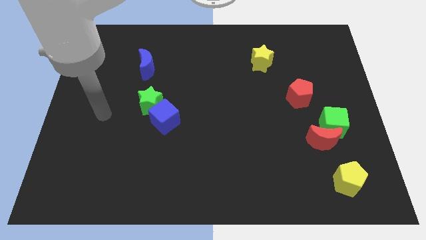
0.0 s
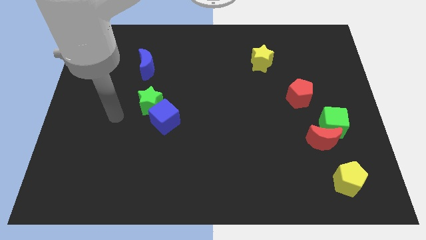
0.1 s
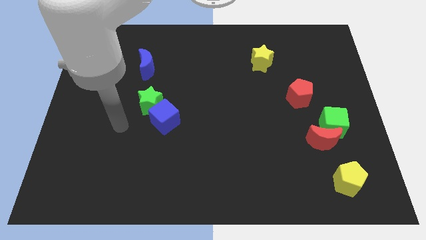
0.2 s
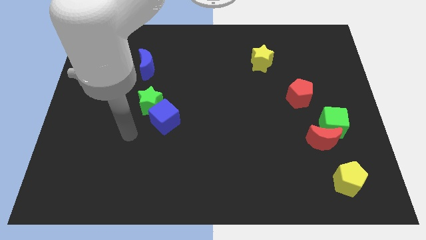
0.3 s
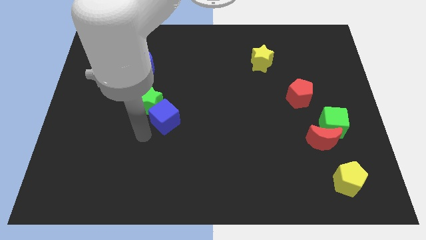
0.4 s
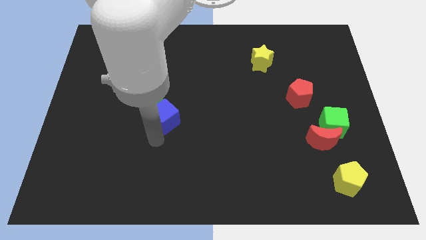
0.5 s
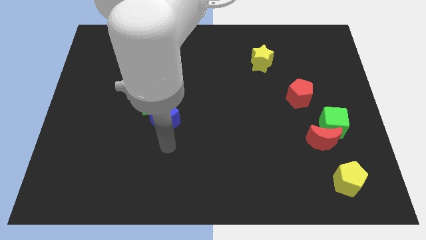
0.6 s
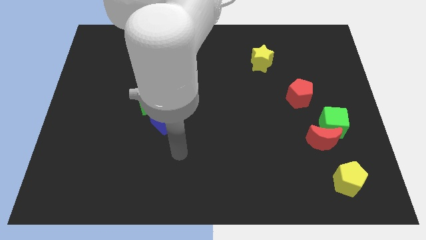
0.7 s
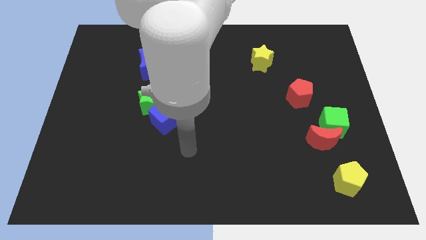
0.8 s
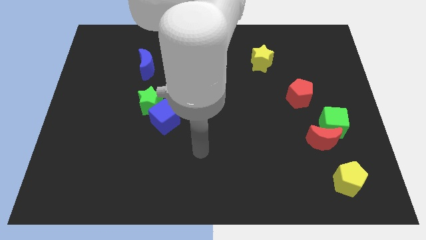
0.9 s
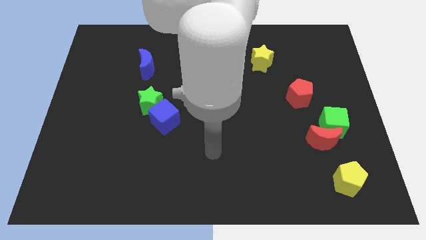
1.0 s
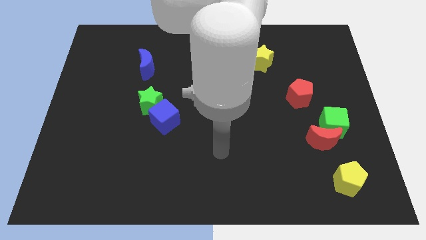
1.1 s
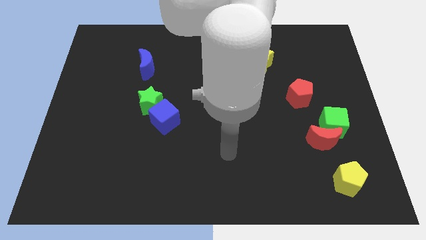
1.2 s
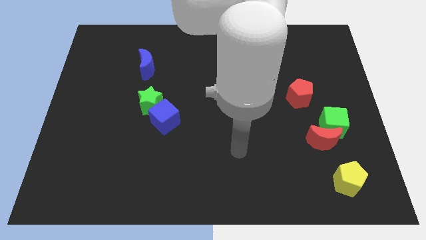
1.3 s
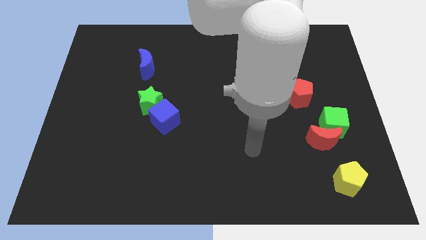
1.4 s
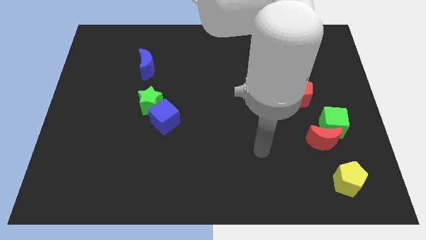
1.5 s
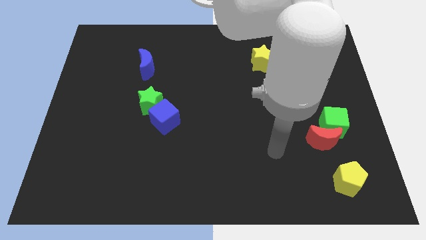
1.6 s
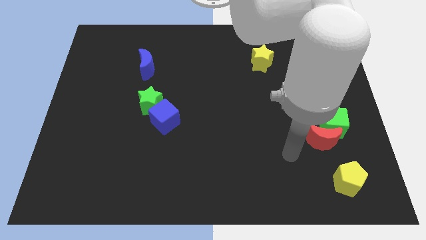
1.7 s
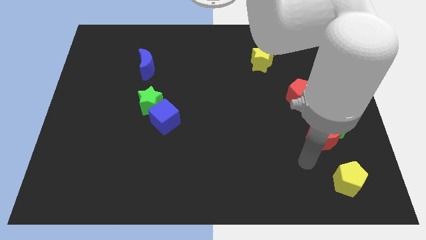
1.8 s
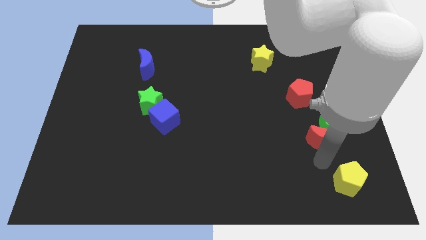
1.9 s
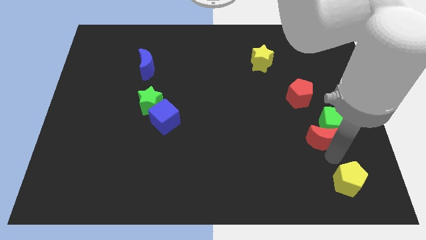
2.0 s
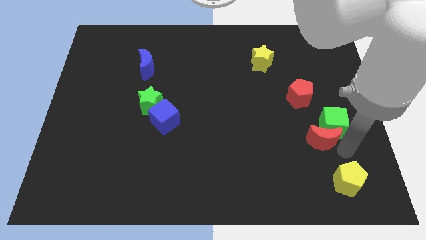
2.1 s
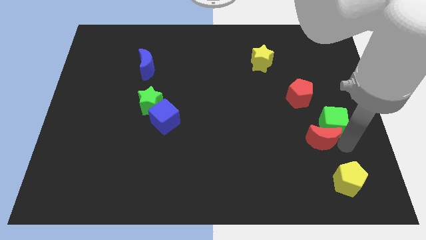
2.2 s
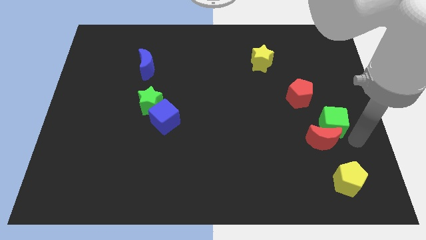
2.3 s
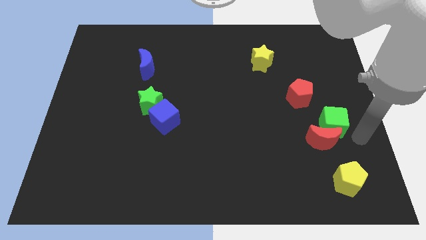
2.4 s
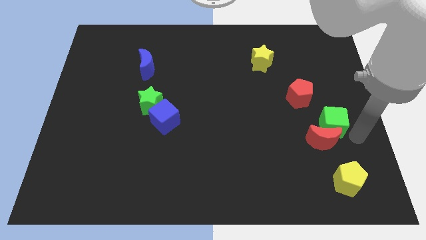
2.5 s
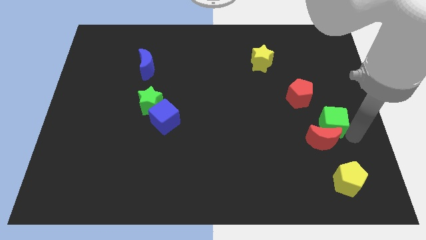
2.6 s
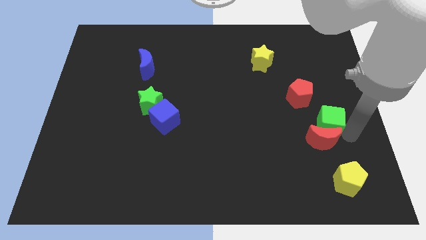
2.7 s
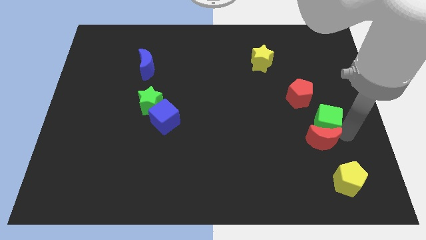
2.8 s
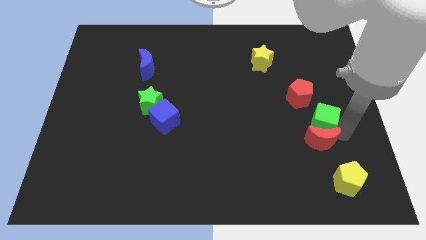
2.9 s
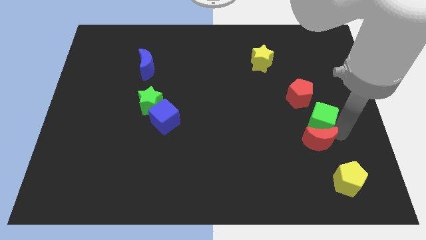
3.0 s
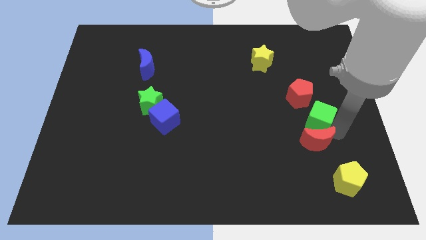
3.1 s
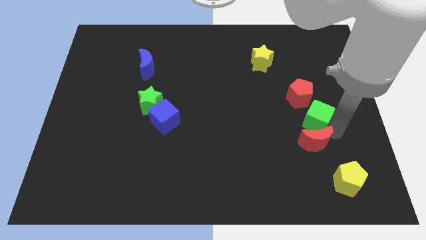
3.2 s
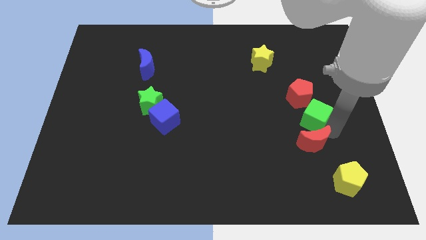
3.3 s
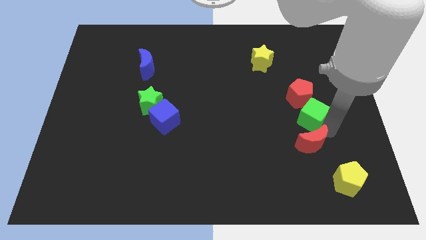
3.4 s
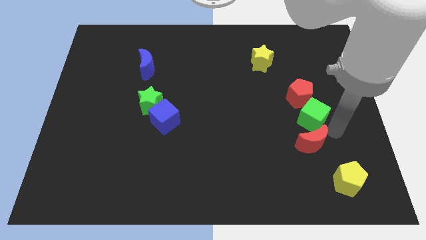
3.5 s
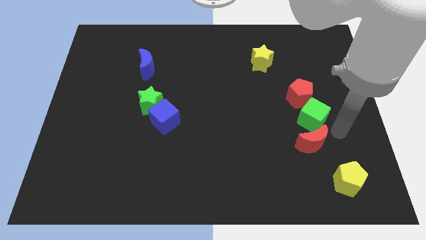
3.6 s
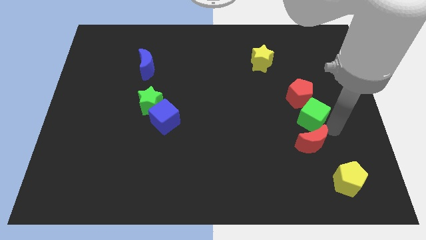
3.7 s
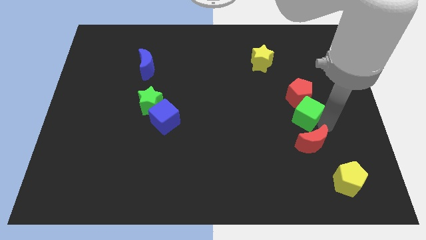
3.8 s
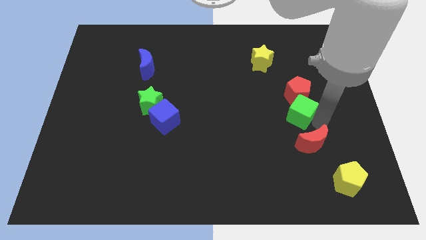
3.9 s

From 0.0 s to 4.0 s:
move the green cube slightly up and left diagonally

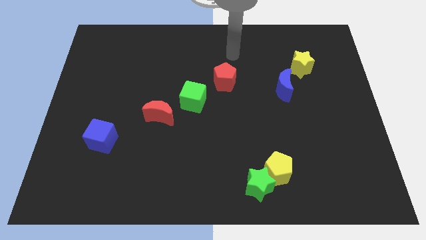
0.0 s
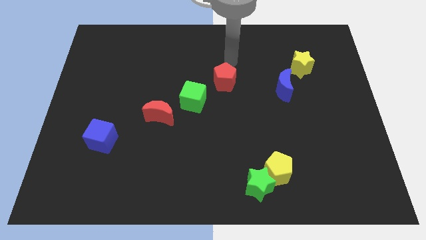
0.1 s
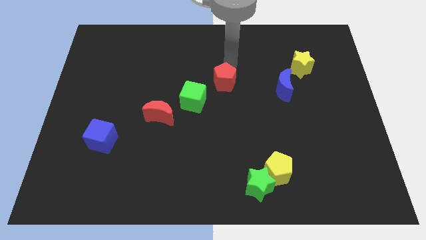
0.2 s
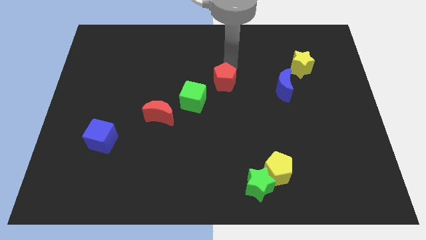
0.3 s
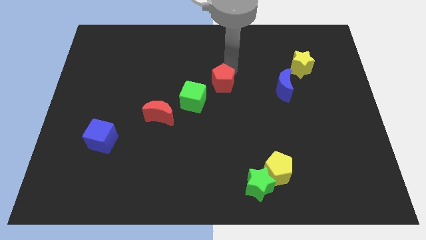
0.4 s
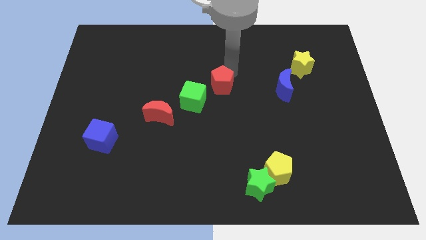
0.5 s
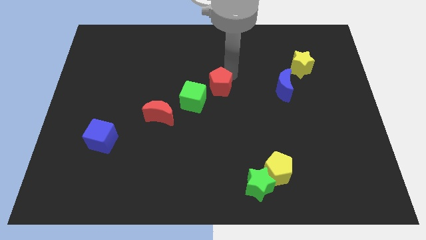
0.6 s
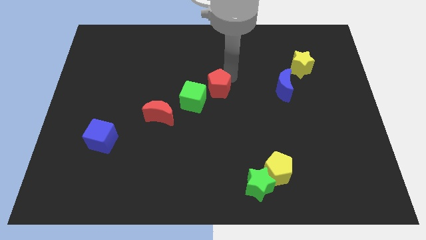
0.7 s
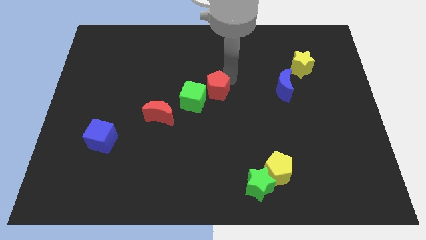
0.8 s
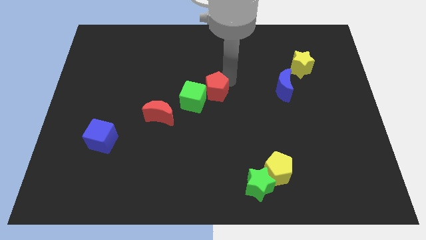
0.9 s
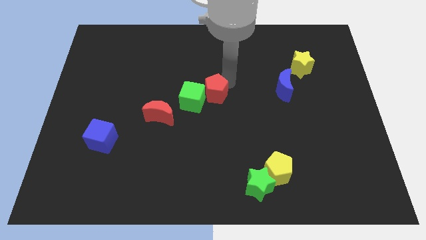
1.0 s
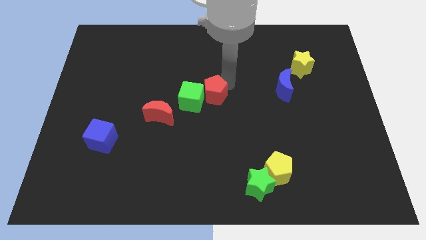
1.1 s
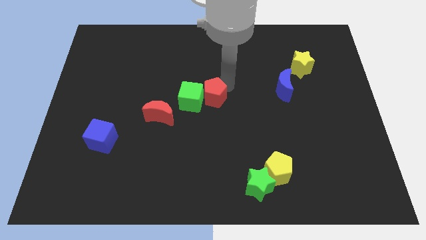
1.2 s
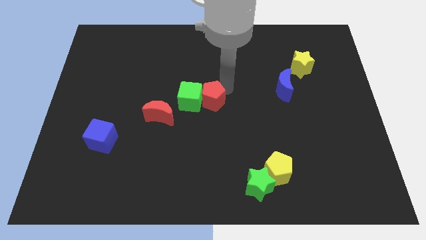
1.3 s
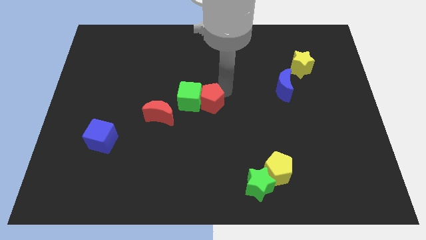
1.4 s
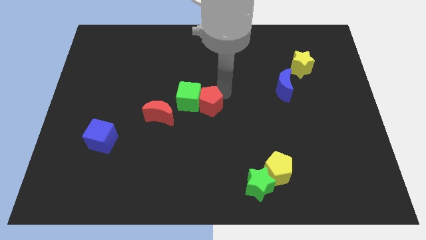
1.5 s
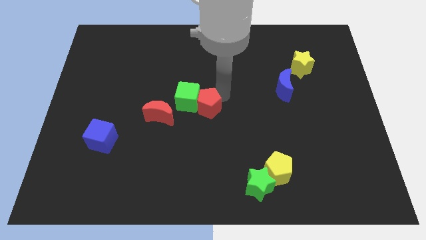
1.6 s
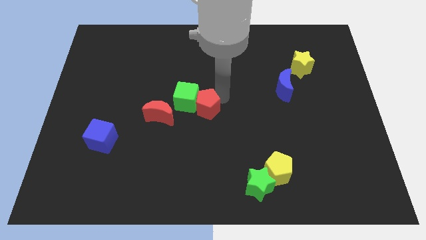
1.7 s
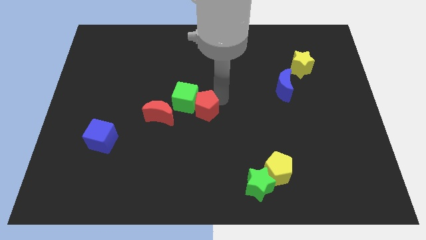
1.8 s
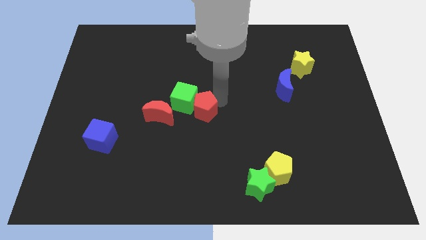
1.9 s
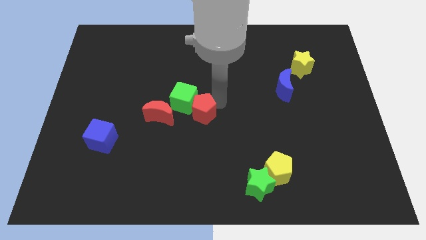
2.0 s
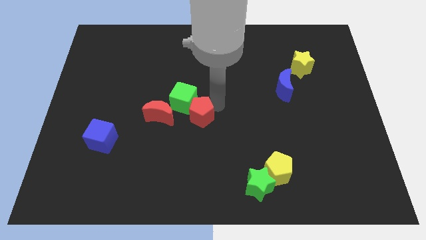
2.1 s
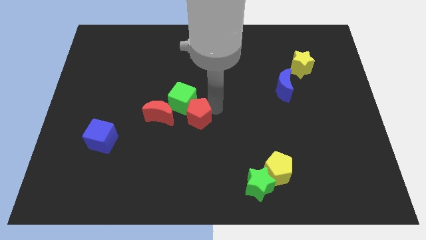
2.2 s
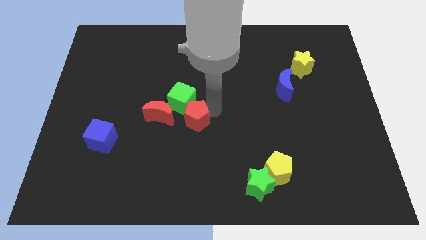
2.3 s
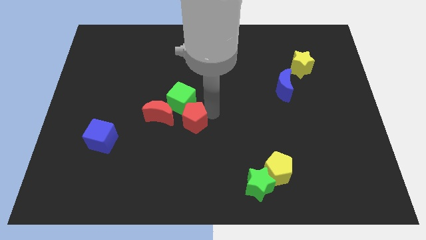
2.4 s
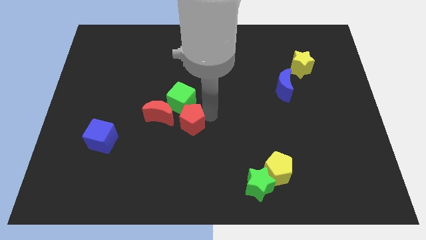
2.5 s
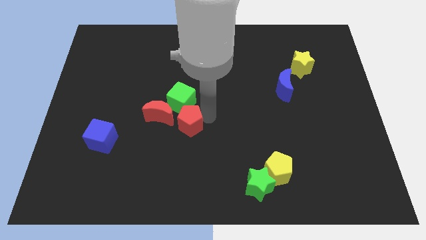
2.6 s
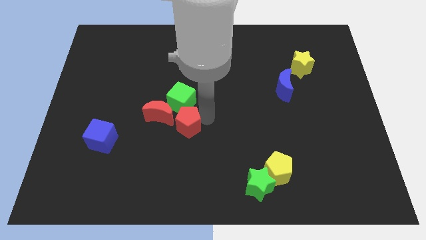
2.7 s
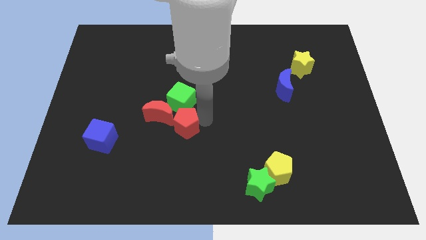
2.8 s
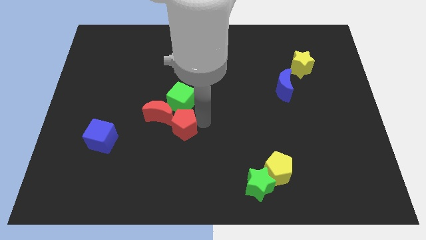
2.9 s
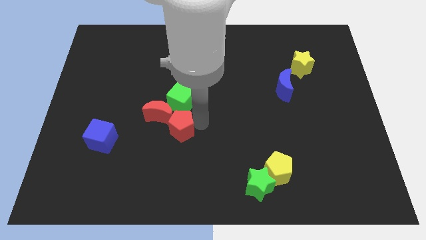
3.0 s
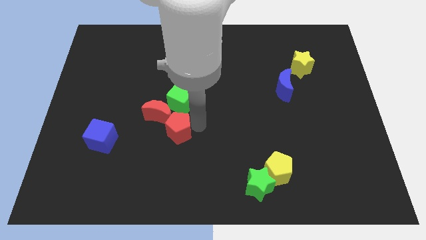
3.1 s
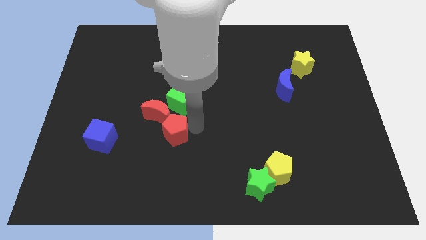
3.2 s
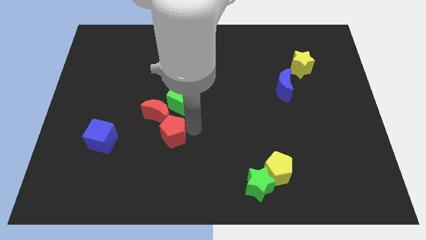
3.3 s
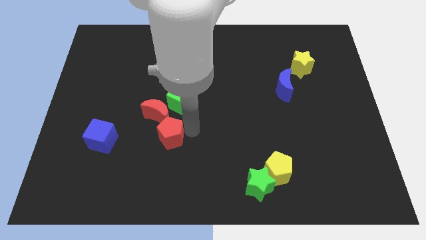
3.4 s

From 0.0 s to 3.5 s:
slide the red pentagon diagonally down and left
